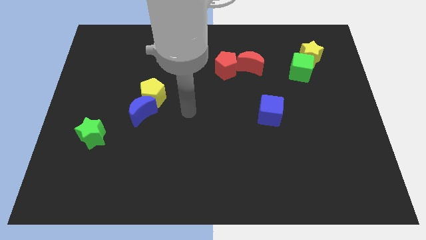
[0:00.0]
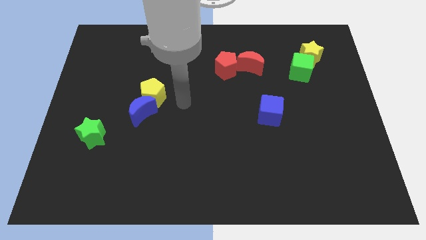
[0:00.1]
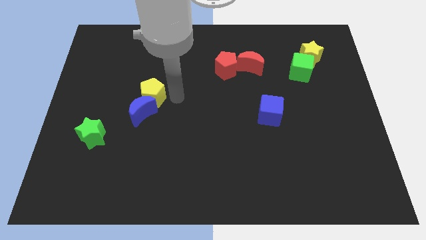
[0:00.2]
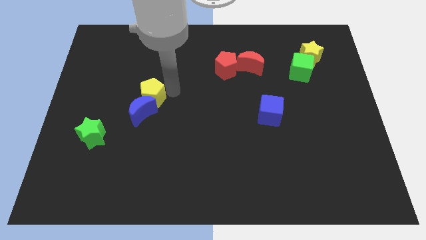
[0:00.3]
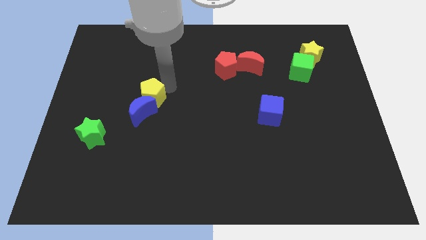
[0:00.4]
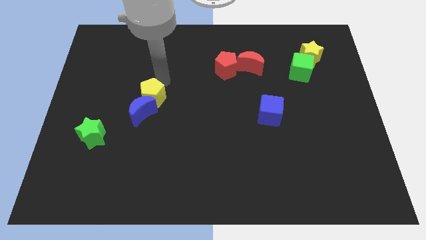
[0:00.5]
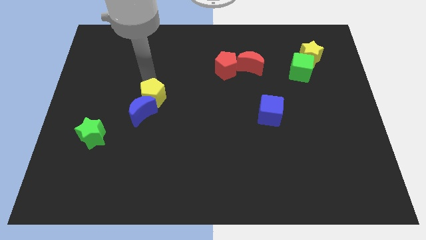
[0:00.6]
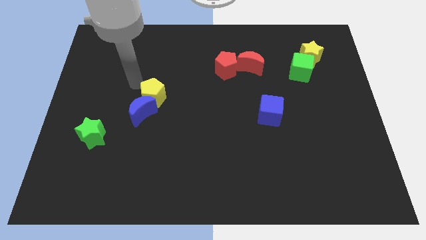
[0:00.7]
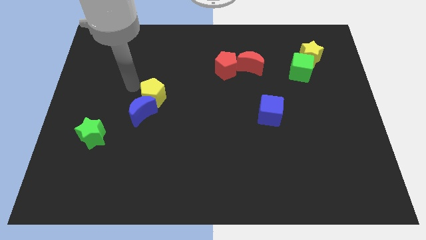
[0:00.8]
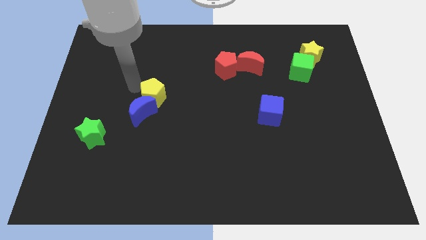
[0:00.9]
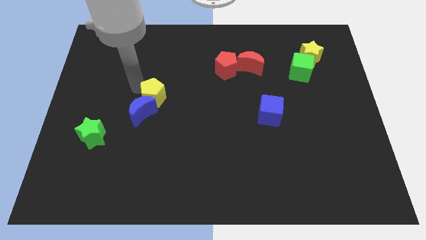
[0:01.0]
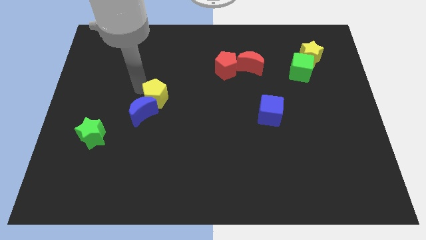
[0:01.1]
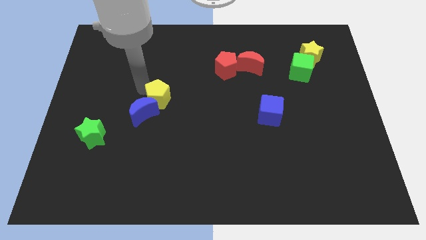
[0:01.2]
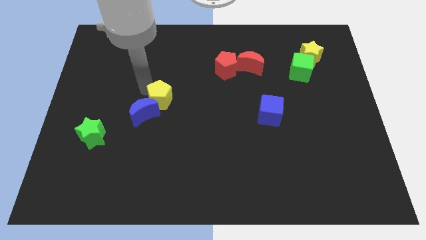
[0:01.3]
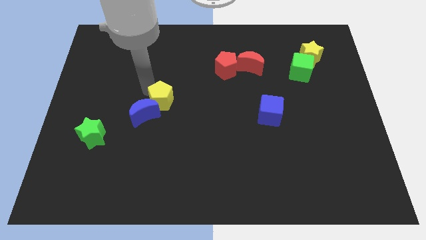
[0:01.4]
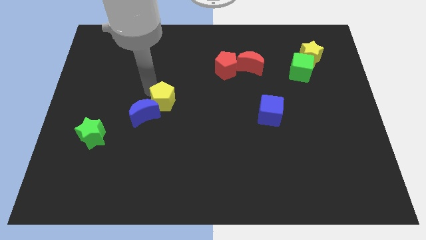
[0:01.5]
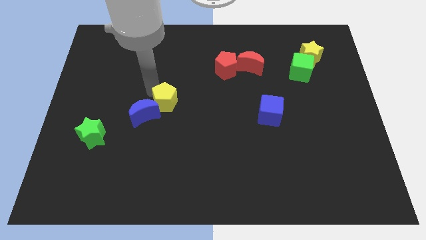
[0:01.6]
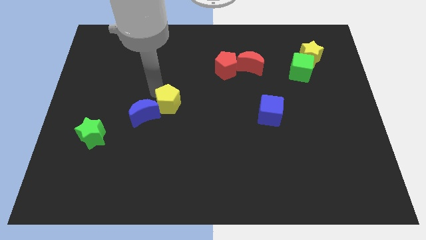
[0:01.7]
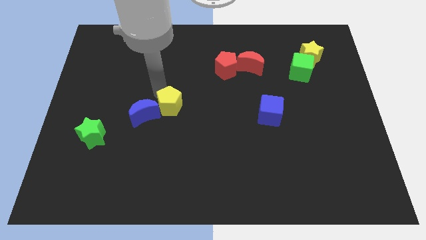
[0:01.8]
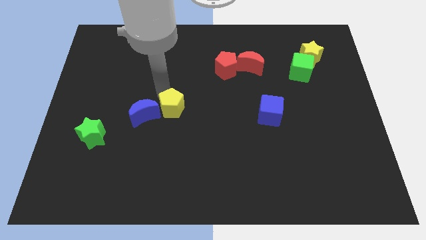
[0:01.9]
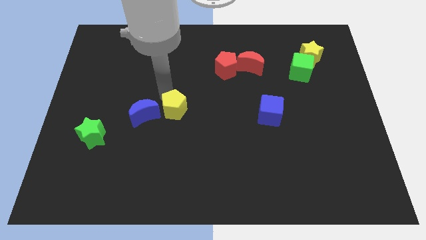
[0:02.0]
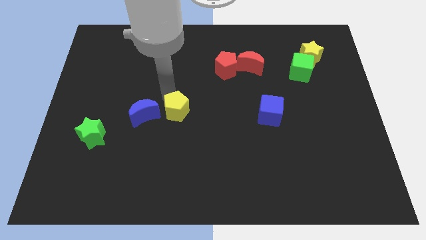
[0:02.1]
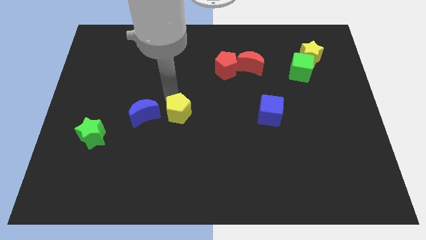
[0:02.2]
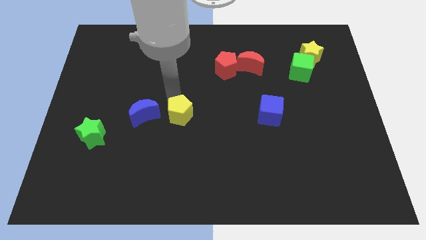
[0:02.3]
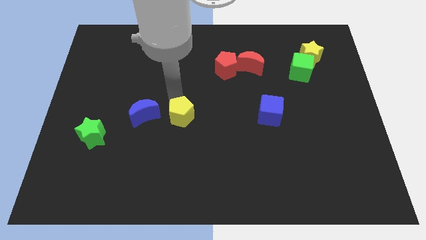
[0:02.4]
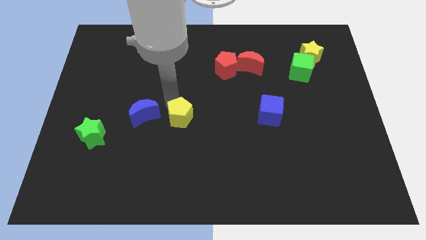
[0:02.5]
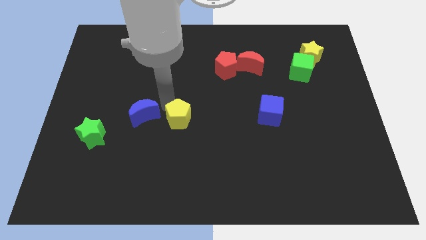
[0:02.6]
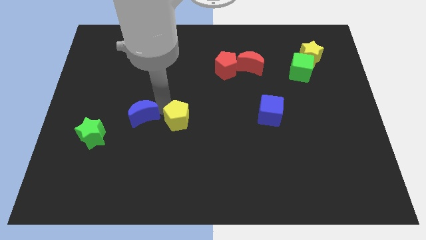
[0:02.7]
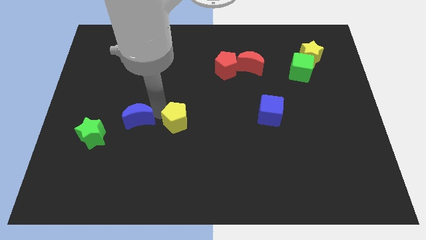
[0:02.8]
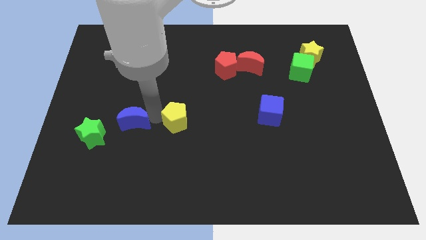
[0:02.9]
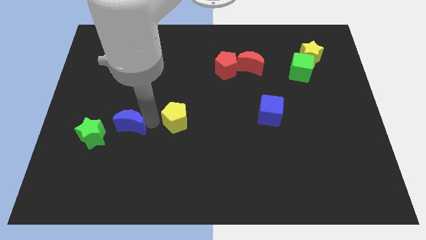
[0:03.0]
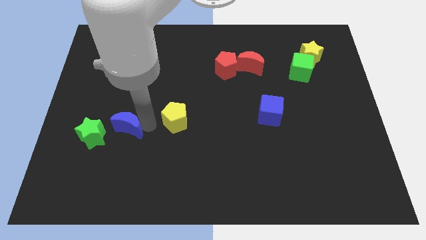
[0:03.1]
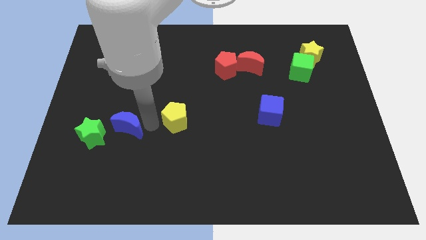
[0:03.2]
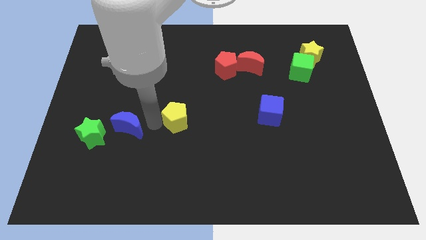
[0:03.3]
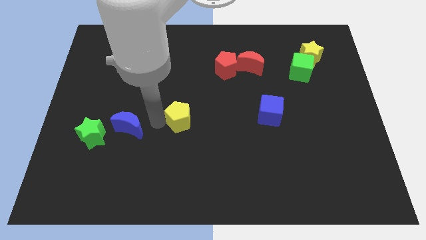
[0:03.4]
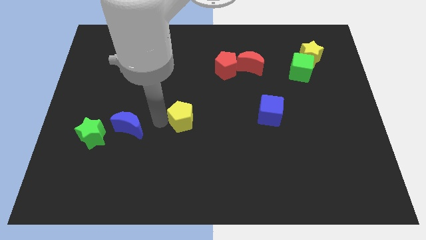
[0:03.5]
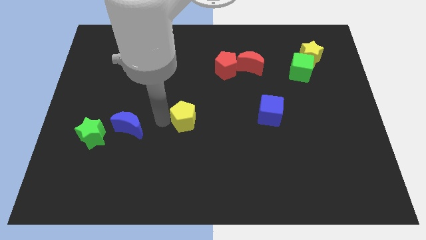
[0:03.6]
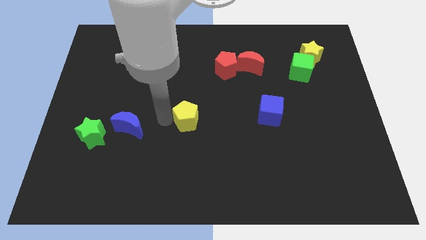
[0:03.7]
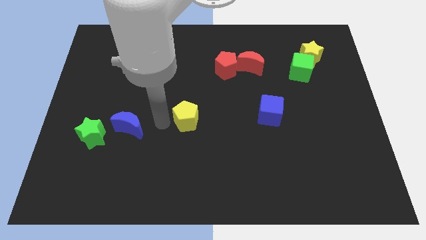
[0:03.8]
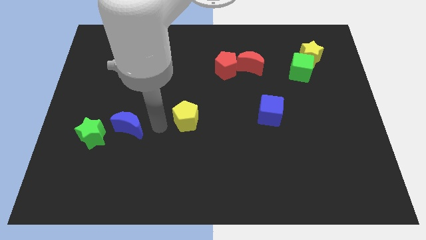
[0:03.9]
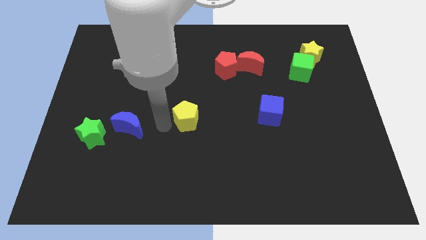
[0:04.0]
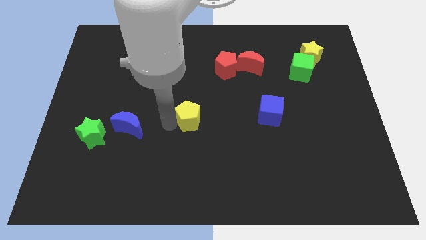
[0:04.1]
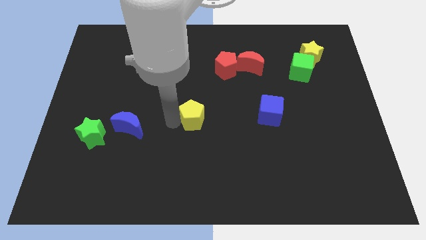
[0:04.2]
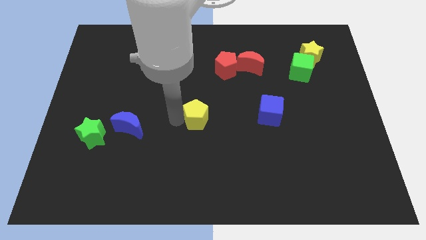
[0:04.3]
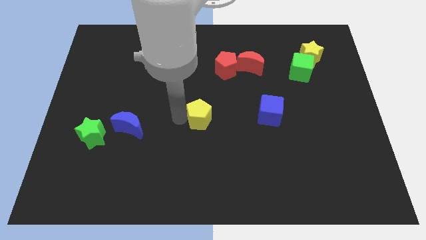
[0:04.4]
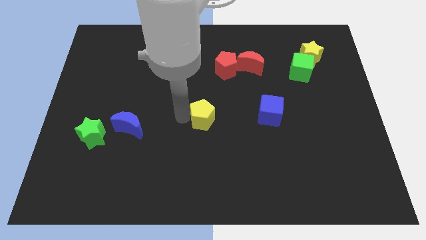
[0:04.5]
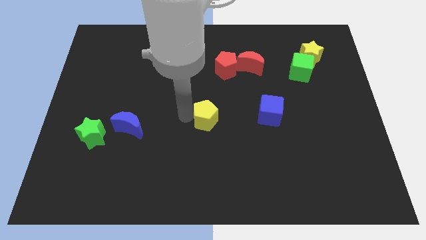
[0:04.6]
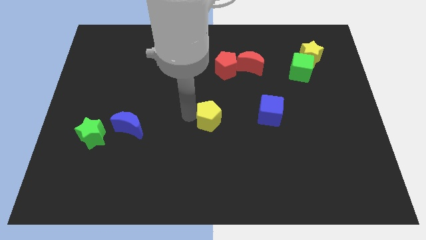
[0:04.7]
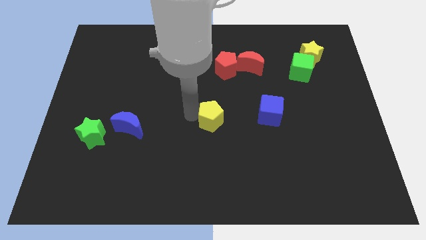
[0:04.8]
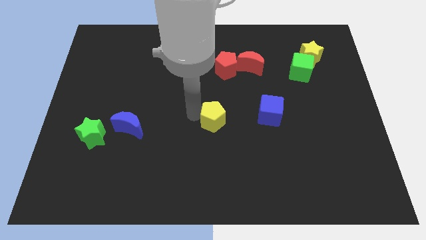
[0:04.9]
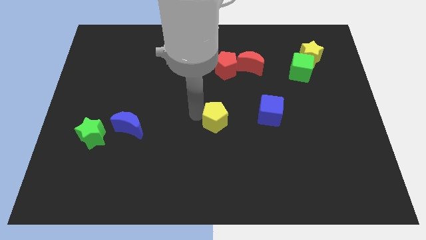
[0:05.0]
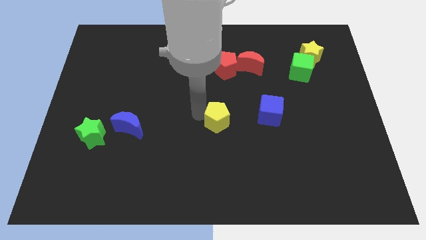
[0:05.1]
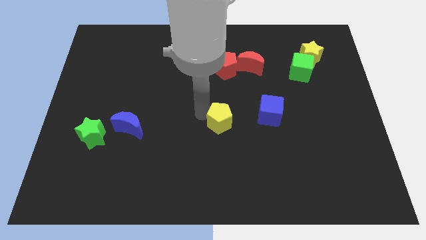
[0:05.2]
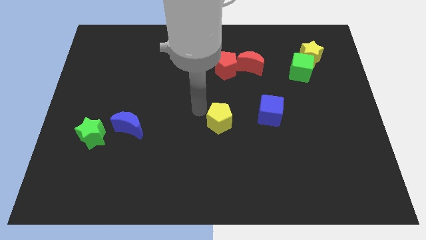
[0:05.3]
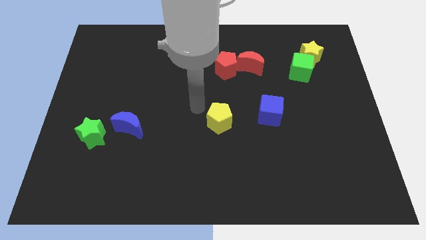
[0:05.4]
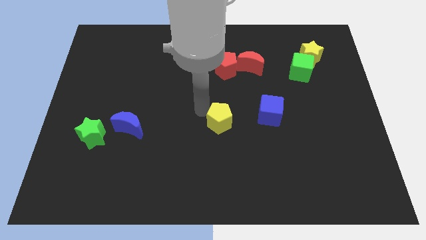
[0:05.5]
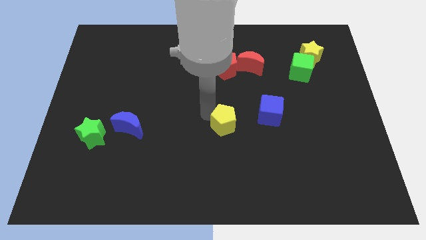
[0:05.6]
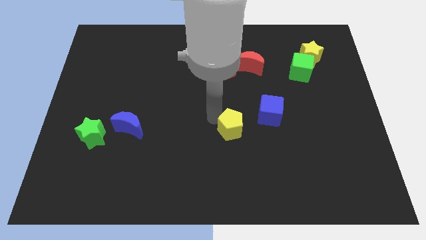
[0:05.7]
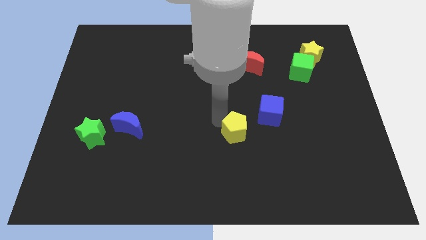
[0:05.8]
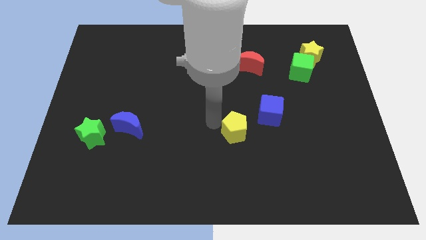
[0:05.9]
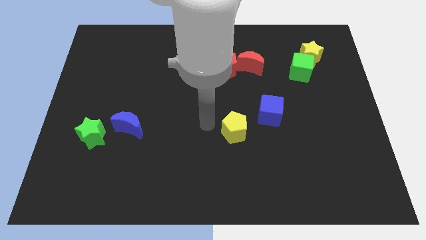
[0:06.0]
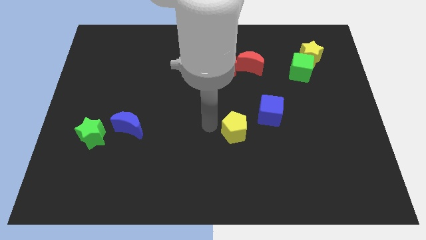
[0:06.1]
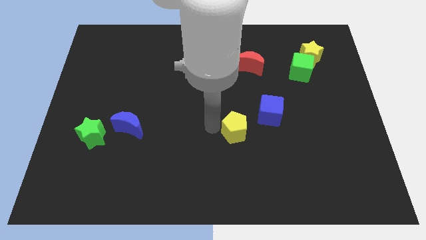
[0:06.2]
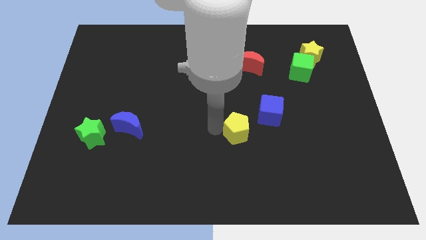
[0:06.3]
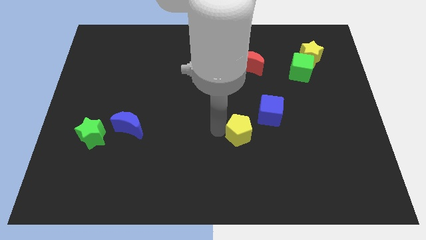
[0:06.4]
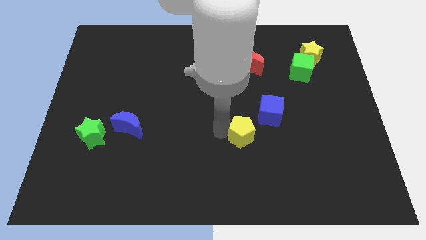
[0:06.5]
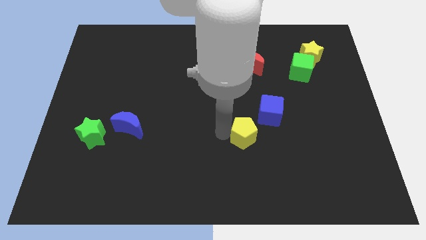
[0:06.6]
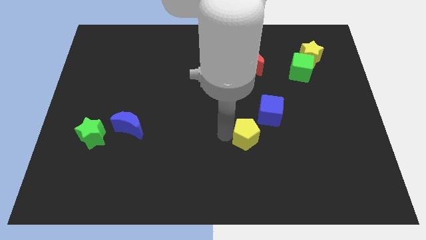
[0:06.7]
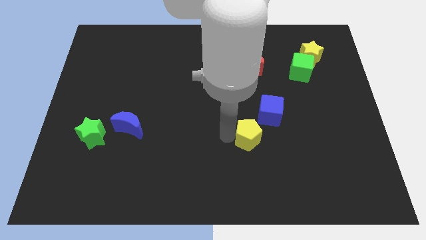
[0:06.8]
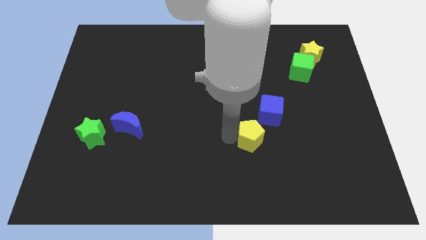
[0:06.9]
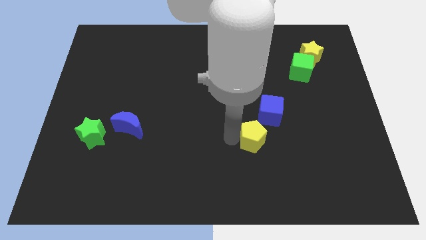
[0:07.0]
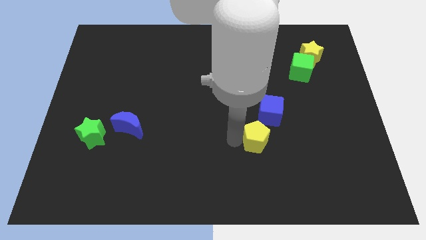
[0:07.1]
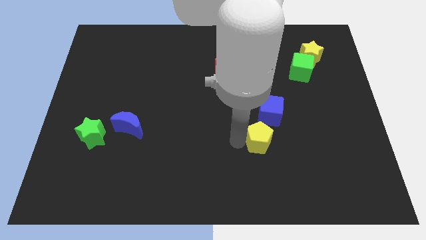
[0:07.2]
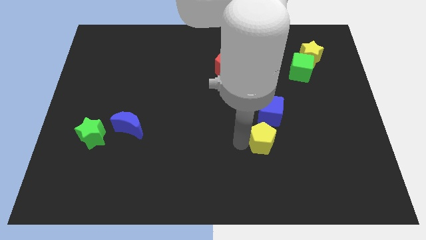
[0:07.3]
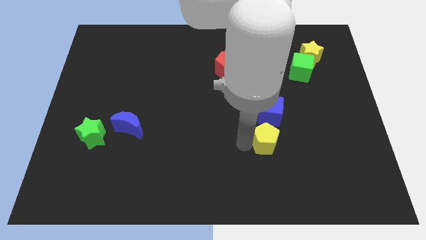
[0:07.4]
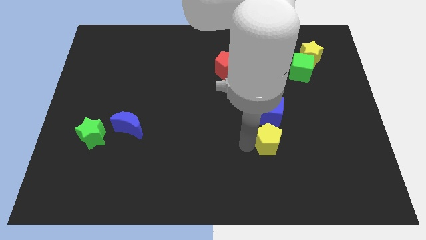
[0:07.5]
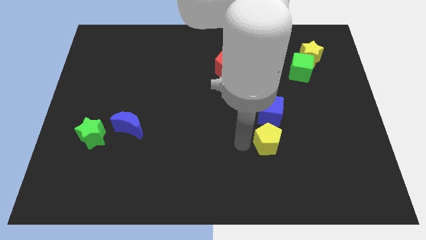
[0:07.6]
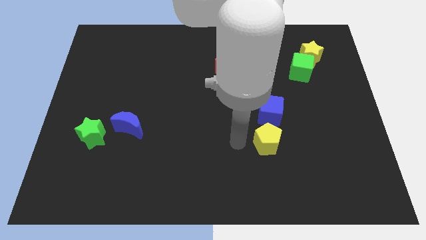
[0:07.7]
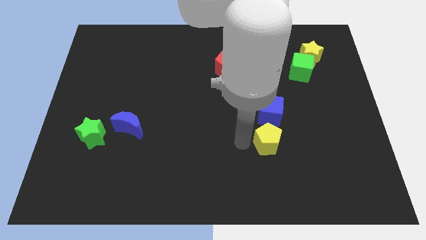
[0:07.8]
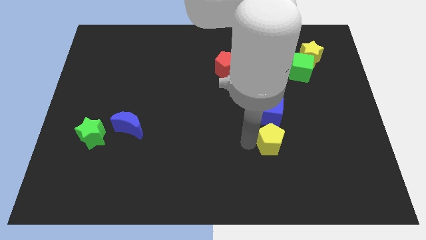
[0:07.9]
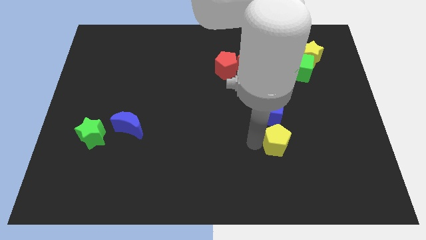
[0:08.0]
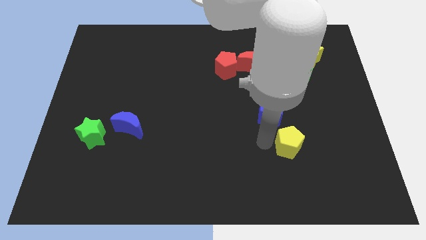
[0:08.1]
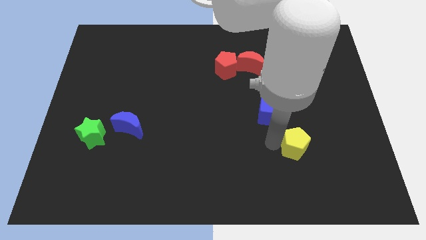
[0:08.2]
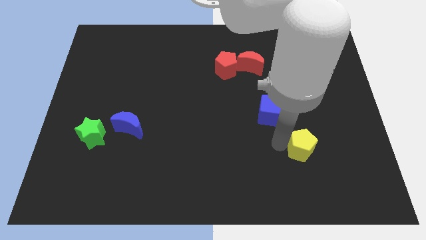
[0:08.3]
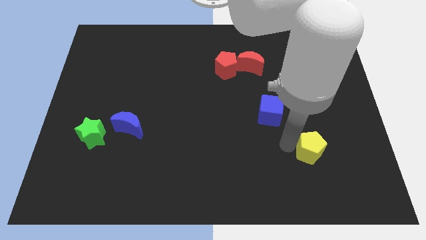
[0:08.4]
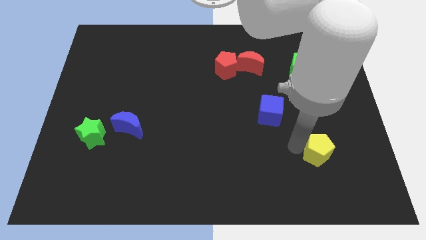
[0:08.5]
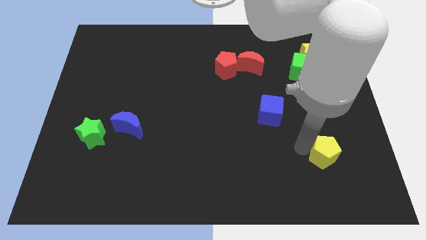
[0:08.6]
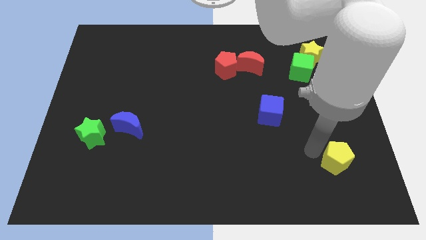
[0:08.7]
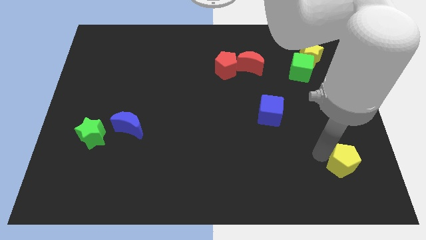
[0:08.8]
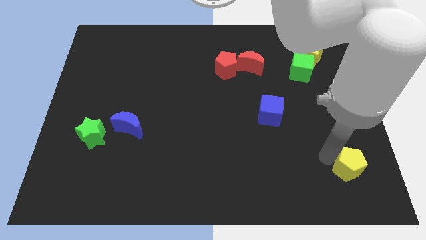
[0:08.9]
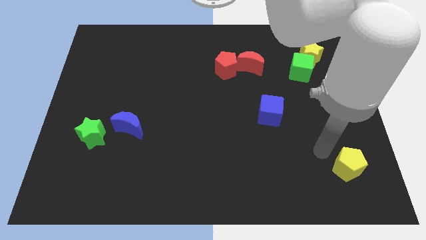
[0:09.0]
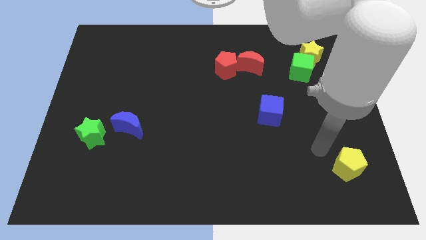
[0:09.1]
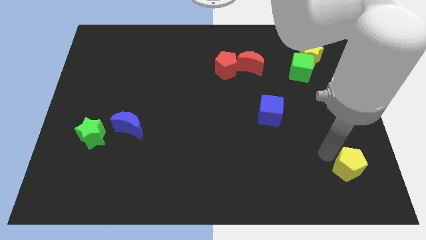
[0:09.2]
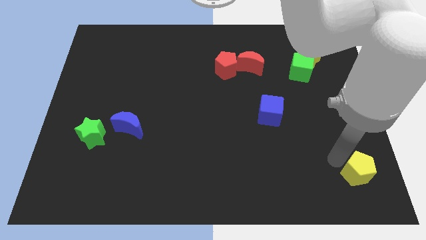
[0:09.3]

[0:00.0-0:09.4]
move the yellow pentagon to the bottom right corner
